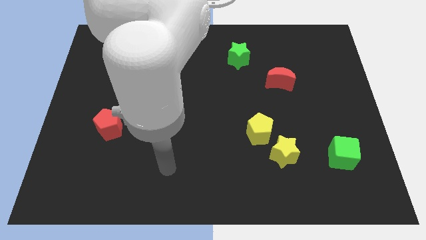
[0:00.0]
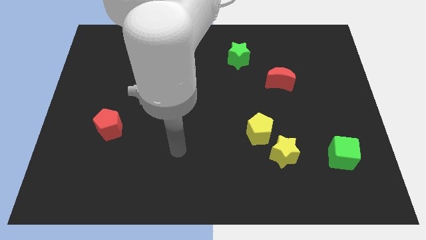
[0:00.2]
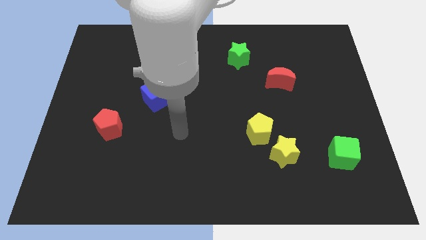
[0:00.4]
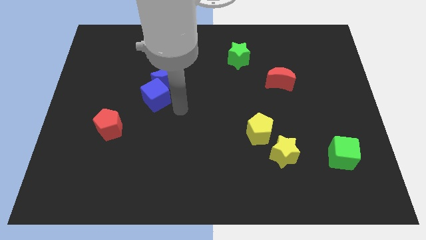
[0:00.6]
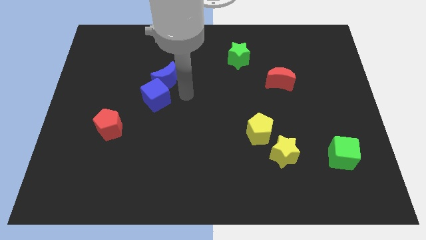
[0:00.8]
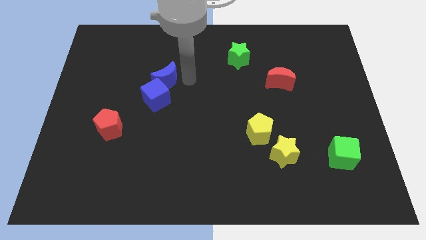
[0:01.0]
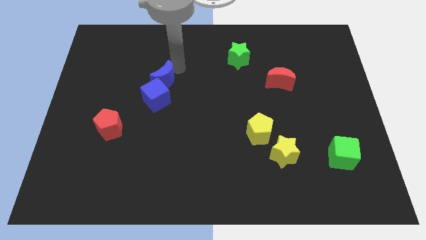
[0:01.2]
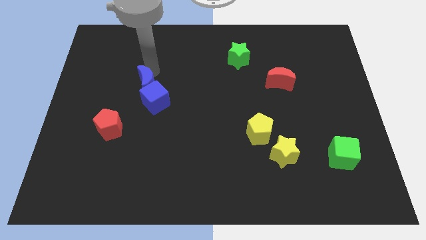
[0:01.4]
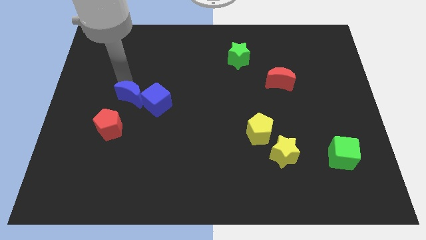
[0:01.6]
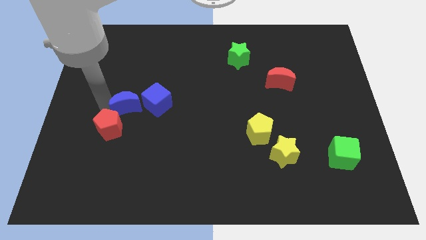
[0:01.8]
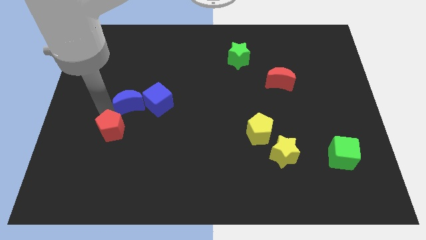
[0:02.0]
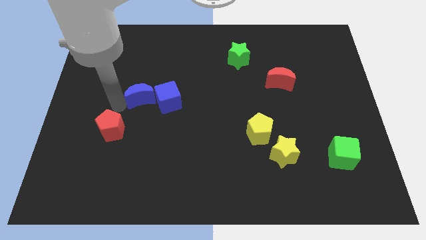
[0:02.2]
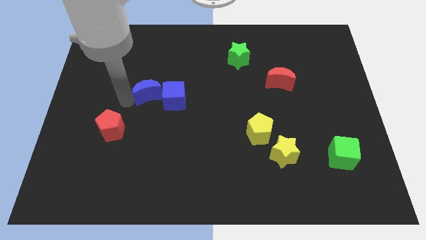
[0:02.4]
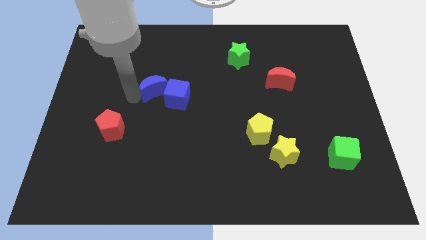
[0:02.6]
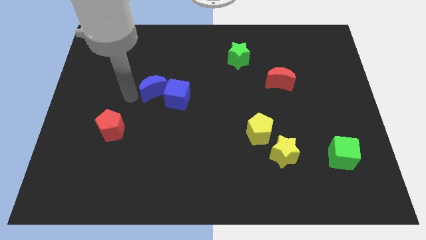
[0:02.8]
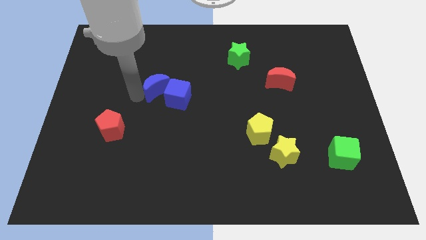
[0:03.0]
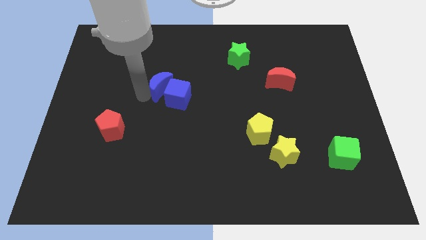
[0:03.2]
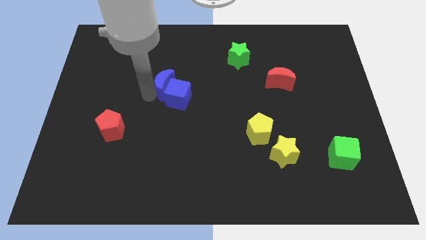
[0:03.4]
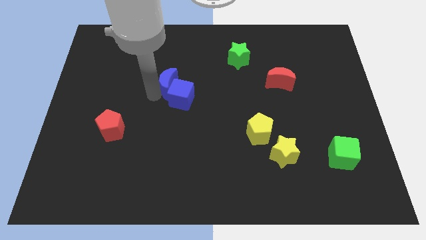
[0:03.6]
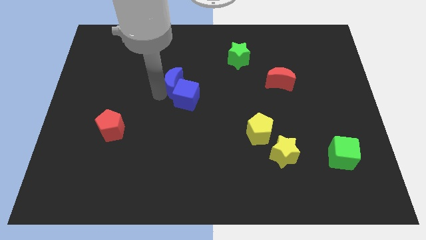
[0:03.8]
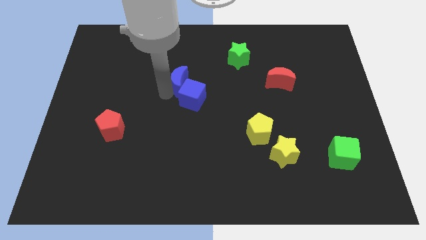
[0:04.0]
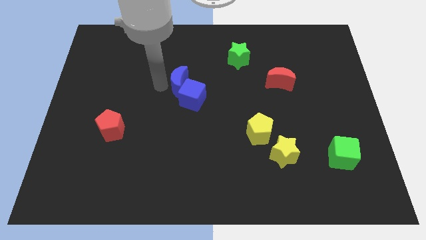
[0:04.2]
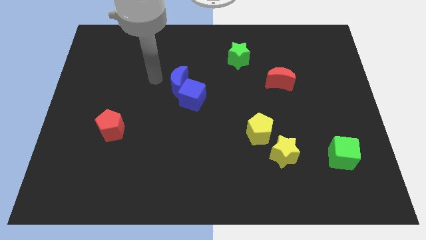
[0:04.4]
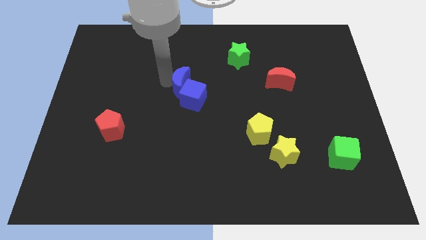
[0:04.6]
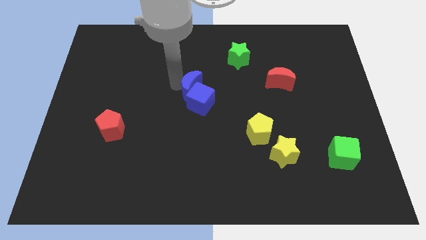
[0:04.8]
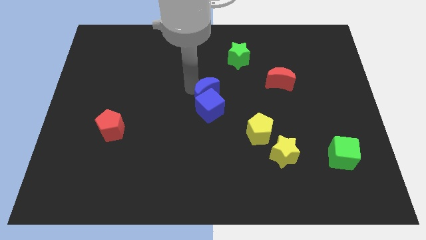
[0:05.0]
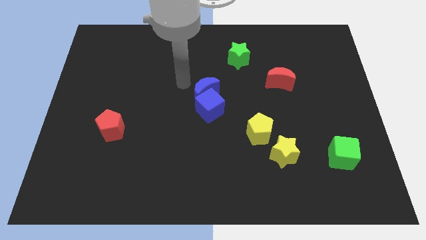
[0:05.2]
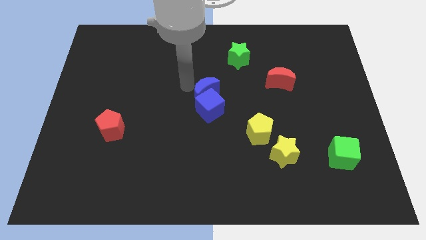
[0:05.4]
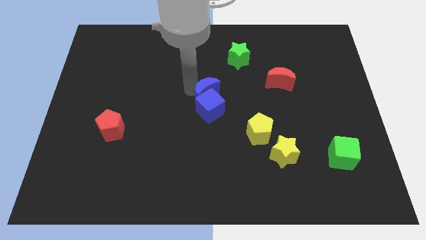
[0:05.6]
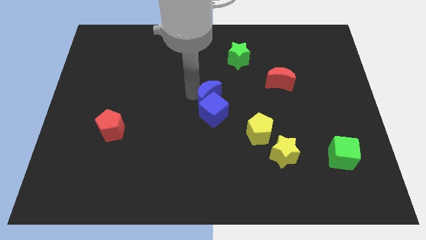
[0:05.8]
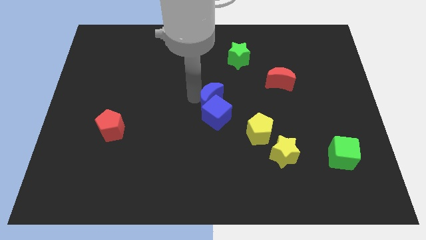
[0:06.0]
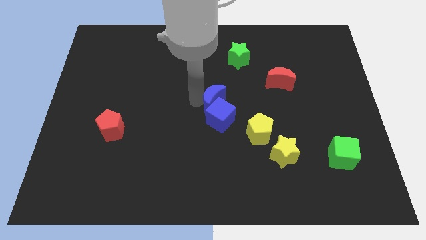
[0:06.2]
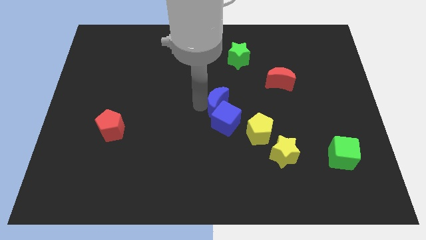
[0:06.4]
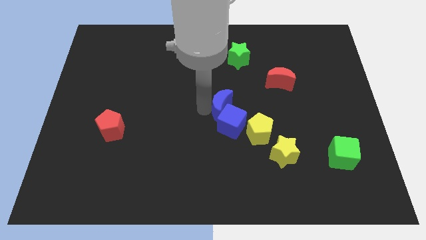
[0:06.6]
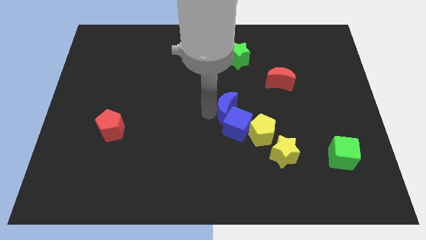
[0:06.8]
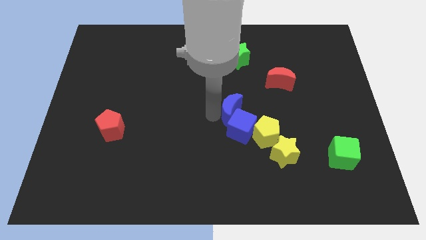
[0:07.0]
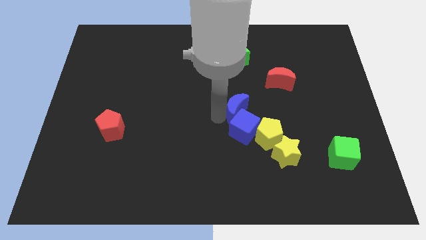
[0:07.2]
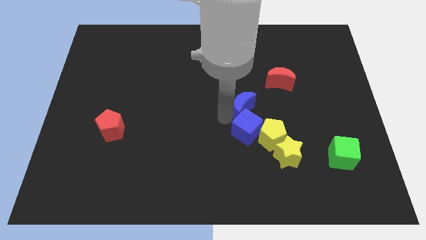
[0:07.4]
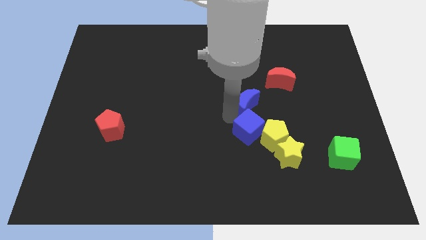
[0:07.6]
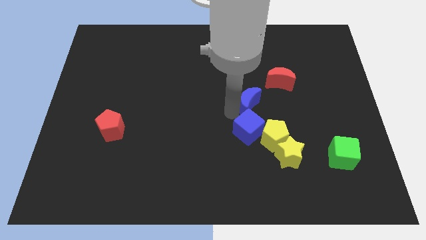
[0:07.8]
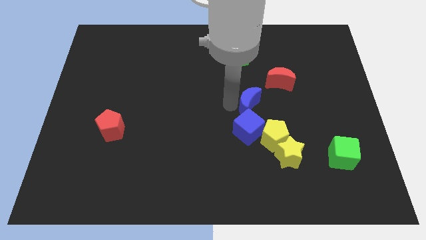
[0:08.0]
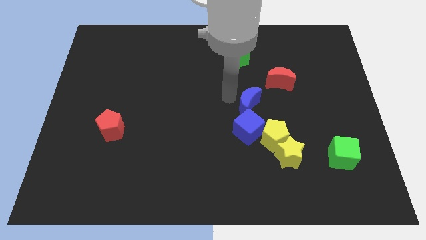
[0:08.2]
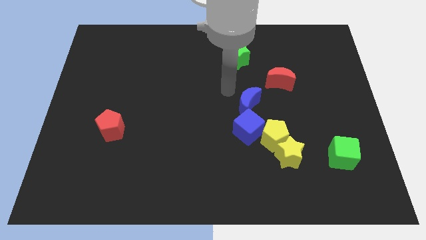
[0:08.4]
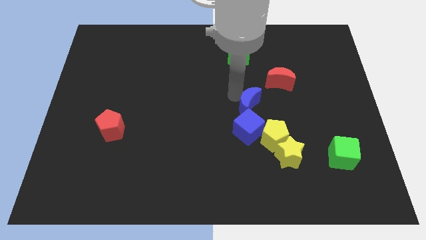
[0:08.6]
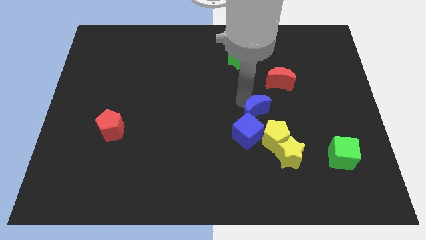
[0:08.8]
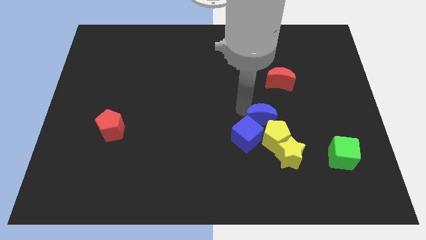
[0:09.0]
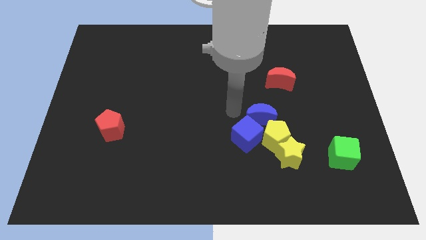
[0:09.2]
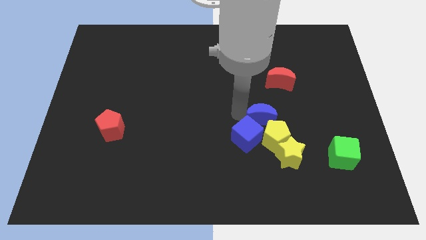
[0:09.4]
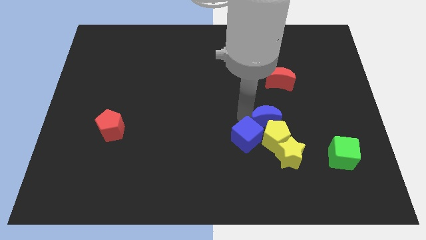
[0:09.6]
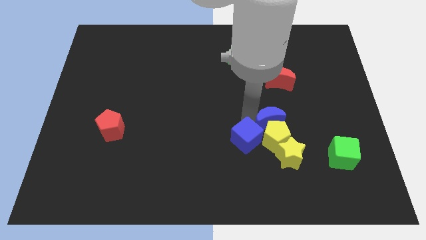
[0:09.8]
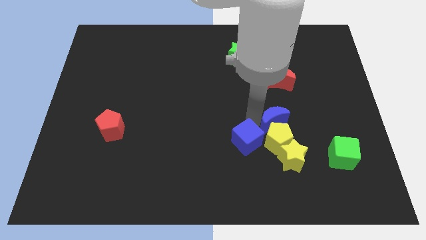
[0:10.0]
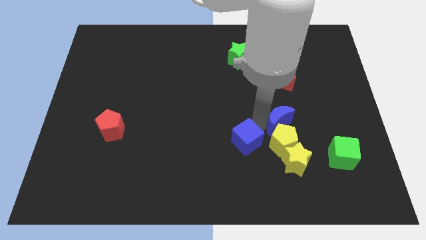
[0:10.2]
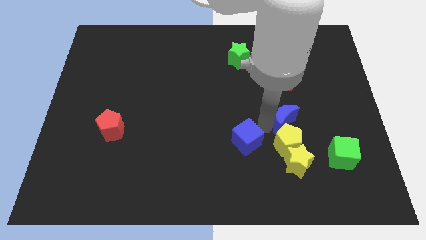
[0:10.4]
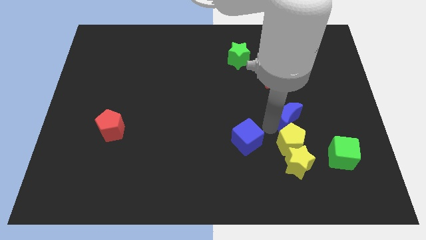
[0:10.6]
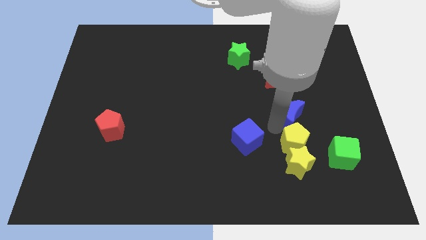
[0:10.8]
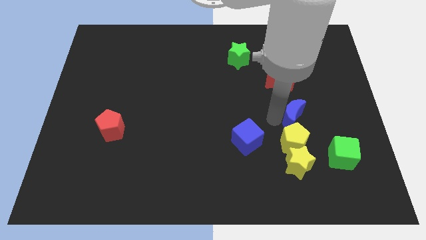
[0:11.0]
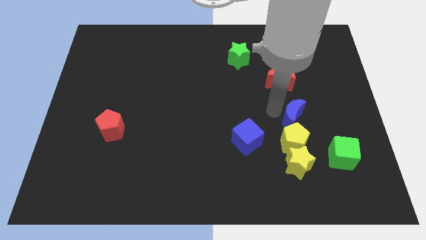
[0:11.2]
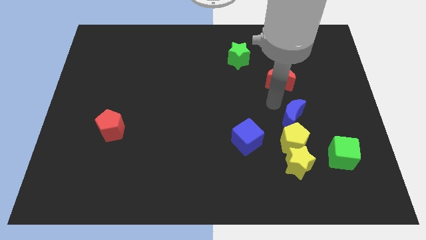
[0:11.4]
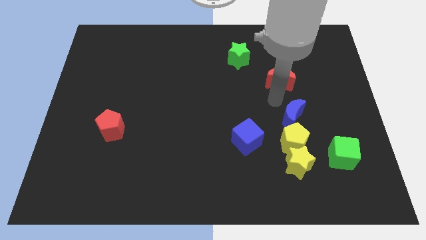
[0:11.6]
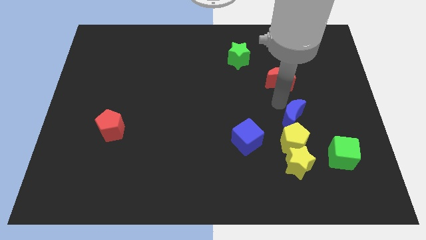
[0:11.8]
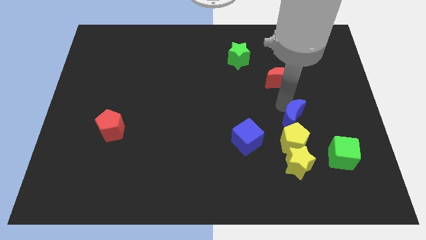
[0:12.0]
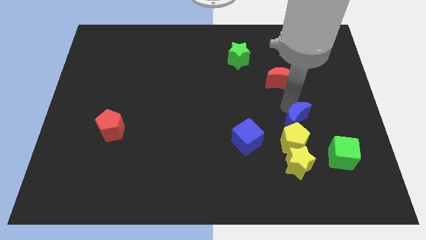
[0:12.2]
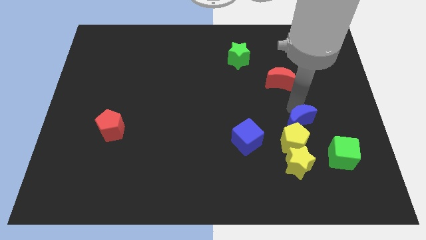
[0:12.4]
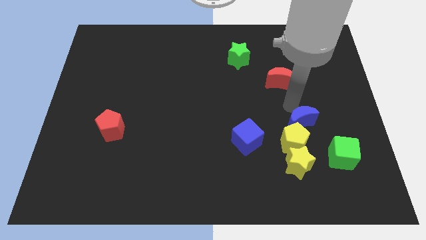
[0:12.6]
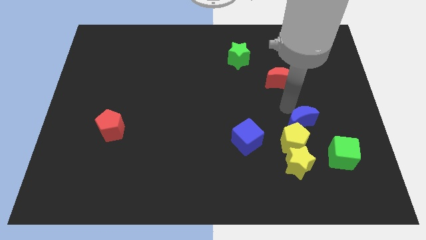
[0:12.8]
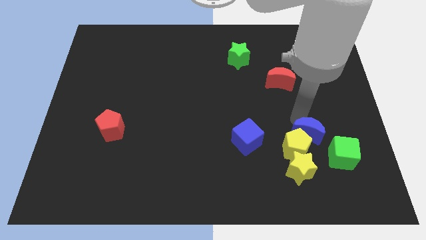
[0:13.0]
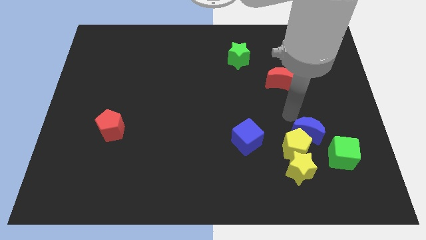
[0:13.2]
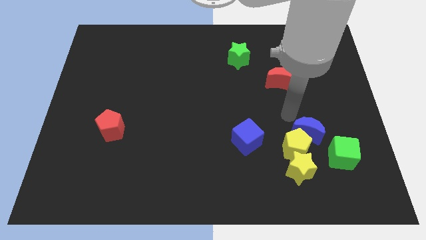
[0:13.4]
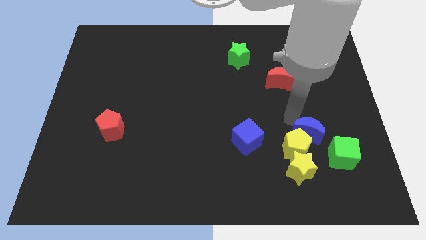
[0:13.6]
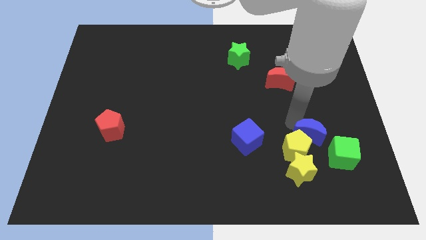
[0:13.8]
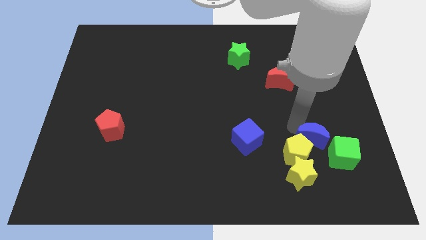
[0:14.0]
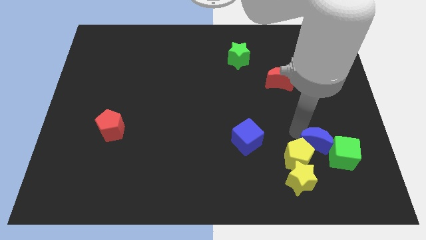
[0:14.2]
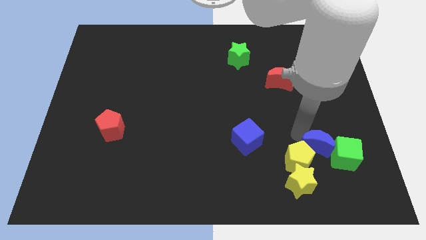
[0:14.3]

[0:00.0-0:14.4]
push the blue moon close to the green cube

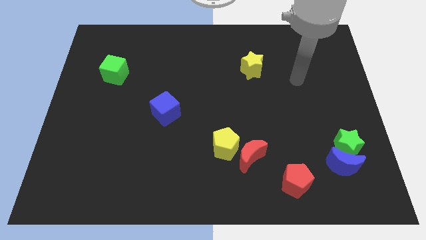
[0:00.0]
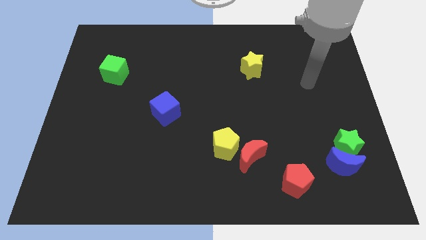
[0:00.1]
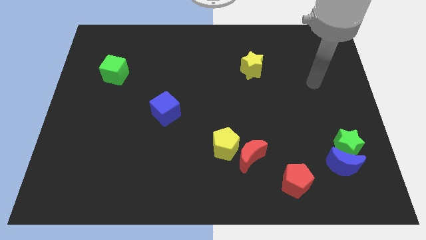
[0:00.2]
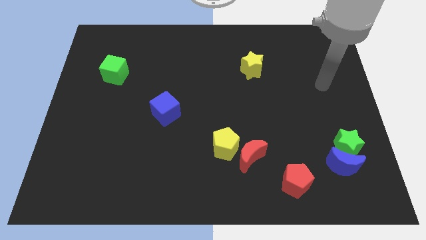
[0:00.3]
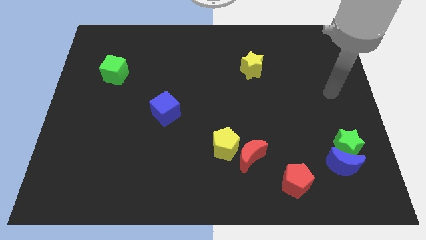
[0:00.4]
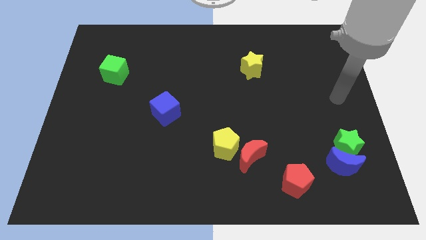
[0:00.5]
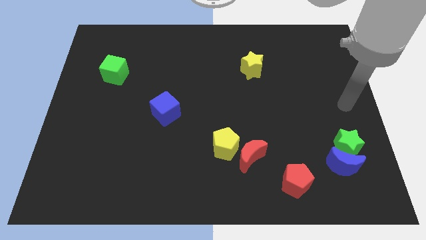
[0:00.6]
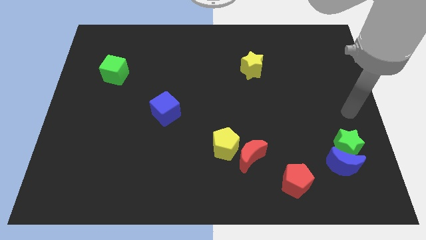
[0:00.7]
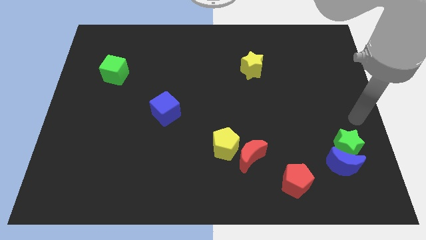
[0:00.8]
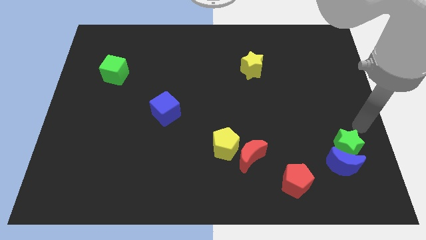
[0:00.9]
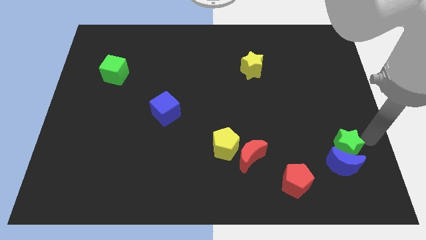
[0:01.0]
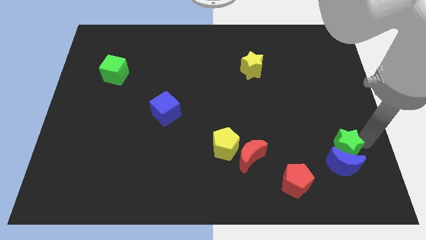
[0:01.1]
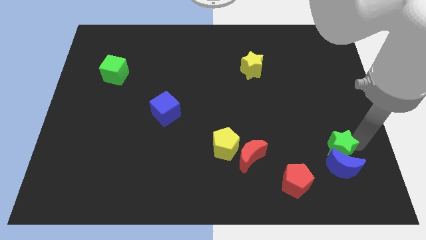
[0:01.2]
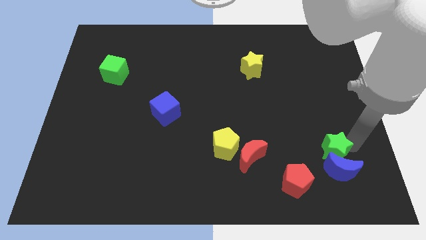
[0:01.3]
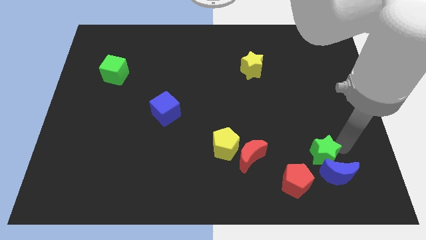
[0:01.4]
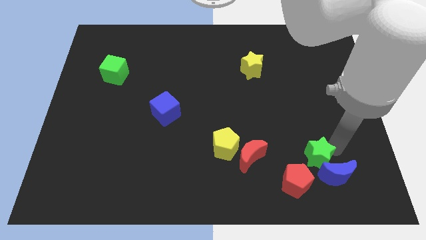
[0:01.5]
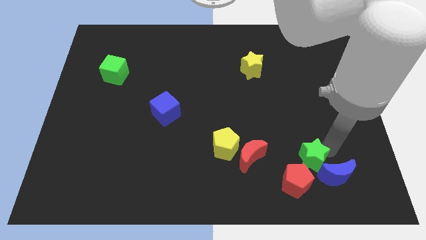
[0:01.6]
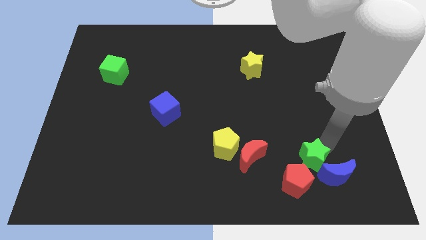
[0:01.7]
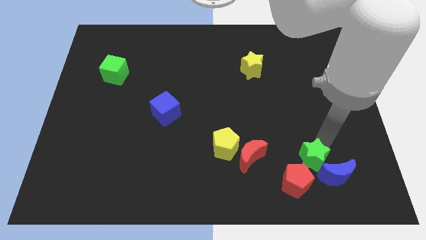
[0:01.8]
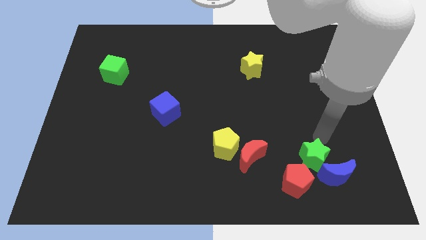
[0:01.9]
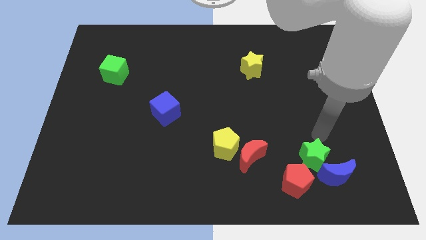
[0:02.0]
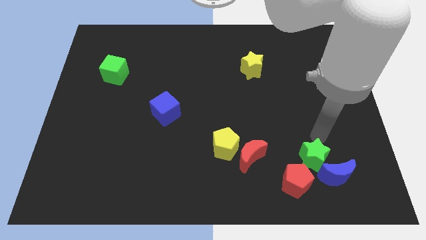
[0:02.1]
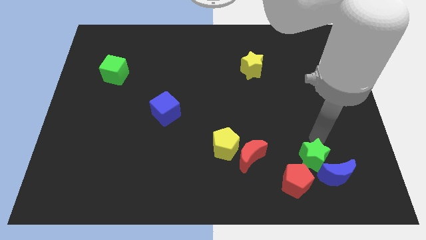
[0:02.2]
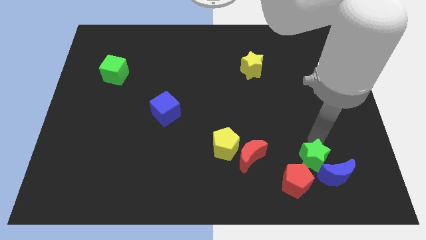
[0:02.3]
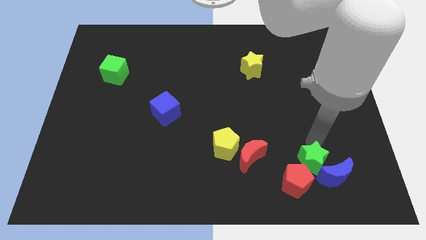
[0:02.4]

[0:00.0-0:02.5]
push the green star to the red pentagon
